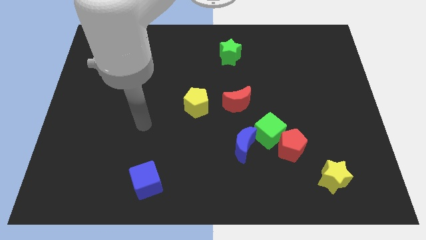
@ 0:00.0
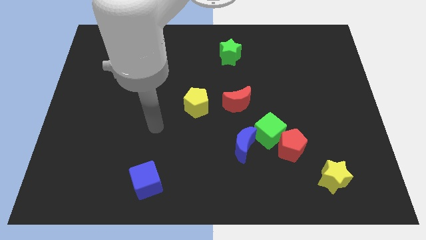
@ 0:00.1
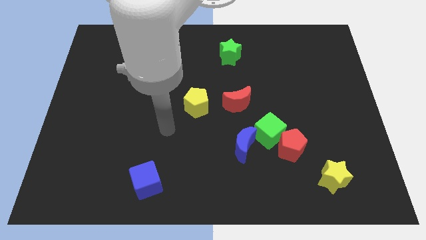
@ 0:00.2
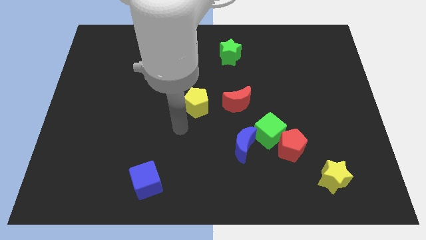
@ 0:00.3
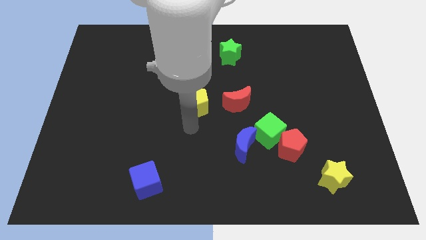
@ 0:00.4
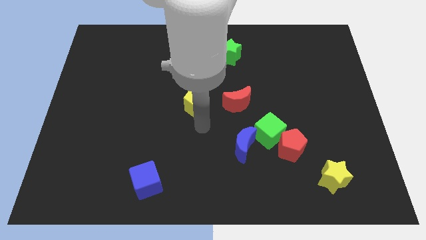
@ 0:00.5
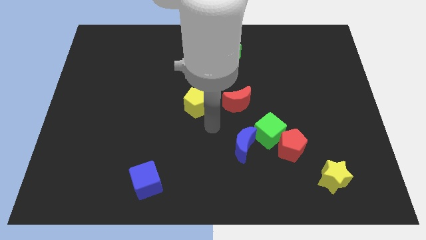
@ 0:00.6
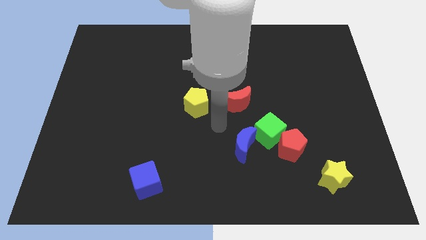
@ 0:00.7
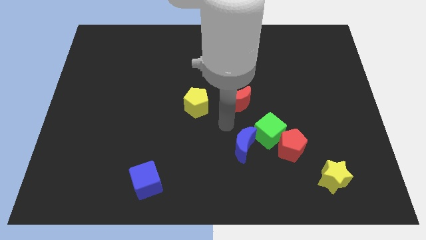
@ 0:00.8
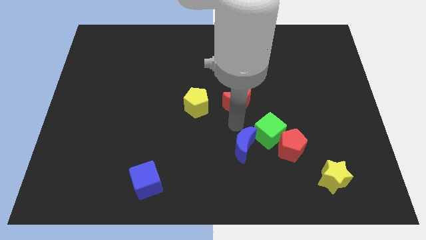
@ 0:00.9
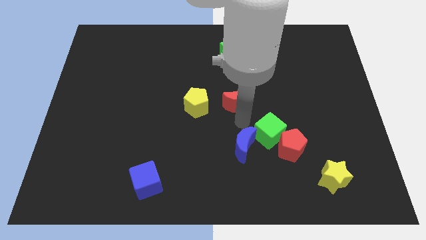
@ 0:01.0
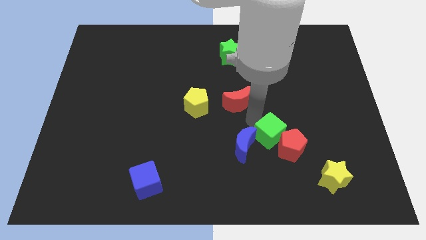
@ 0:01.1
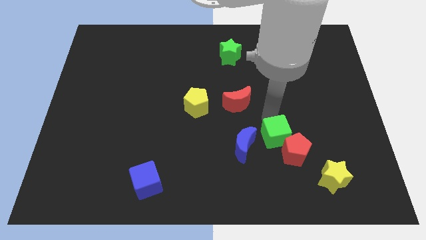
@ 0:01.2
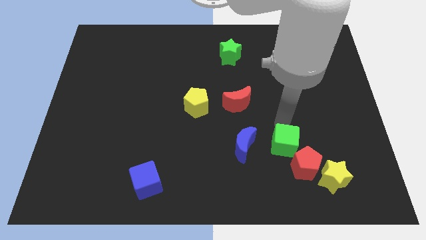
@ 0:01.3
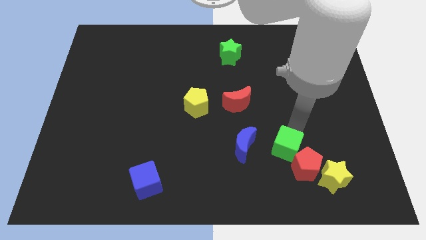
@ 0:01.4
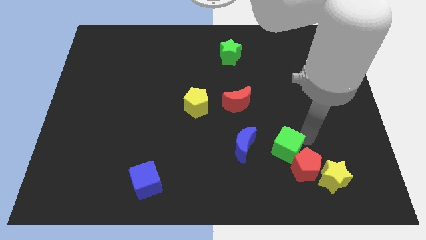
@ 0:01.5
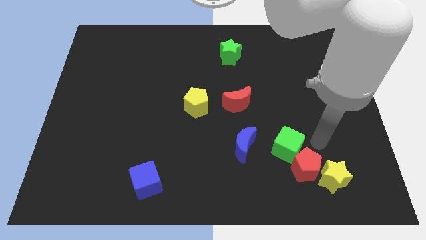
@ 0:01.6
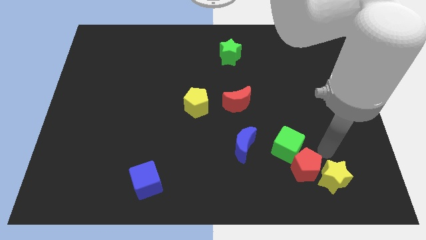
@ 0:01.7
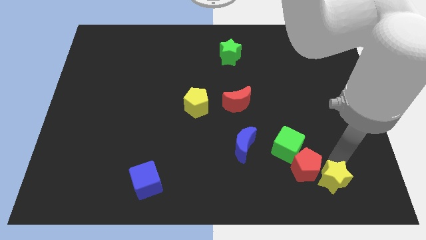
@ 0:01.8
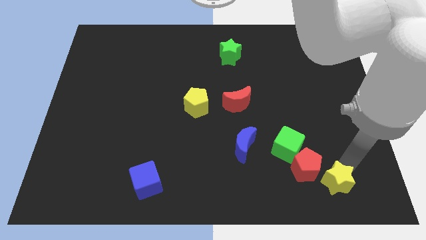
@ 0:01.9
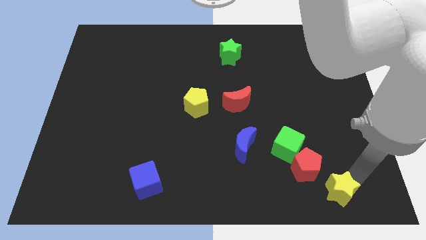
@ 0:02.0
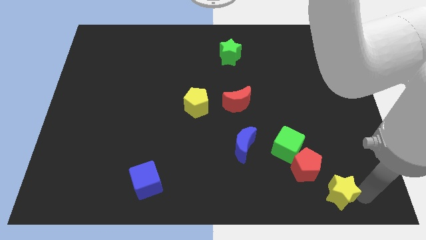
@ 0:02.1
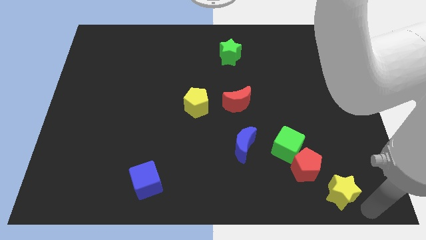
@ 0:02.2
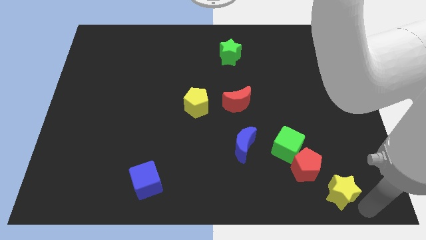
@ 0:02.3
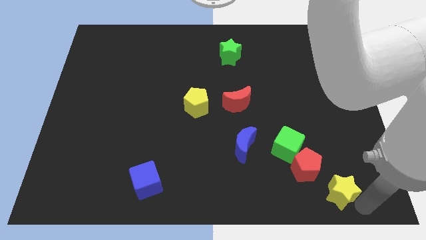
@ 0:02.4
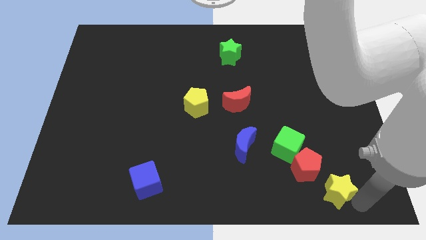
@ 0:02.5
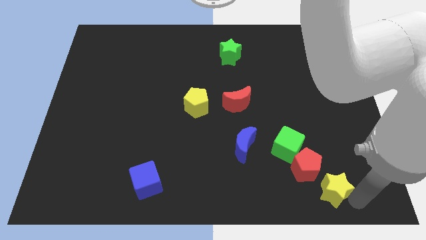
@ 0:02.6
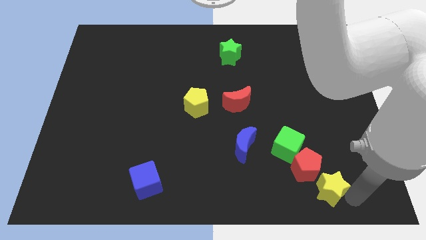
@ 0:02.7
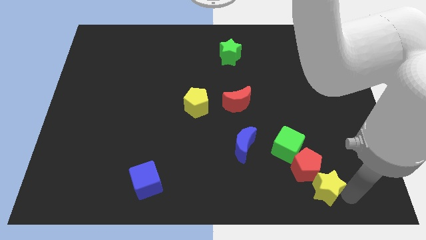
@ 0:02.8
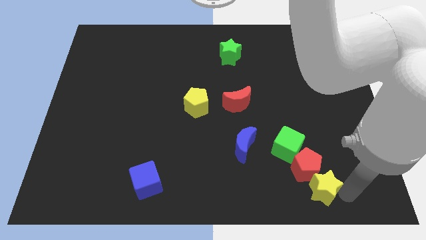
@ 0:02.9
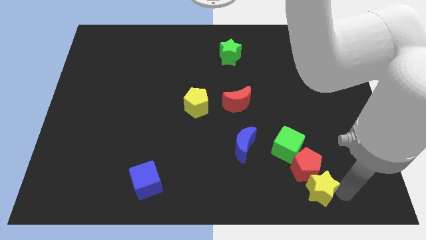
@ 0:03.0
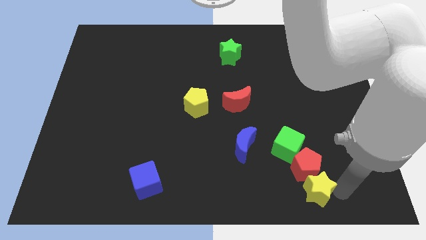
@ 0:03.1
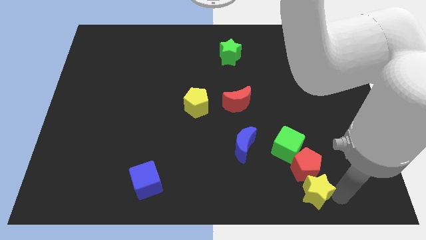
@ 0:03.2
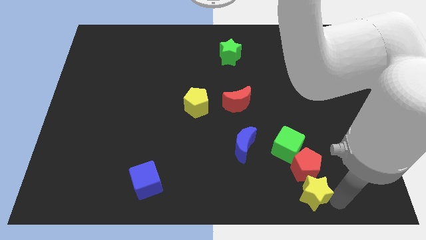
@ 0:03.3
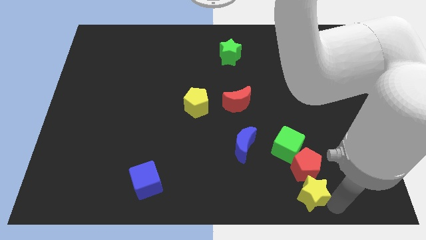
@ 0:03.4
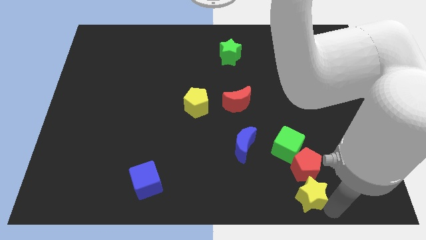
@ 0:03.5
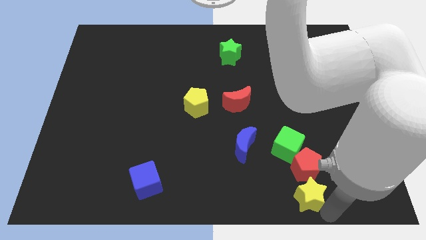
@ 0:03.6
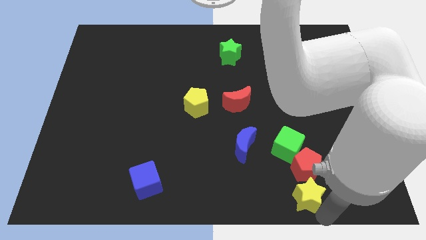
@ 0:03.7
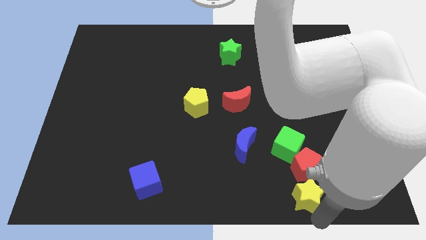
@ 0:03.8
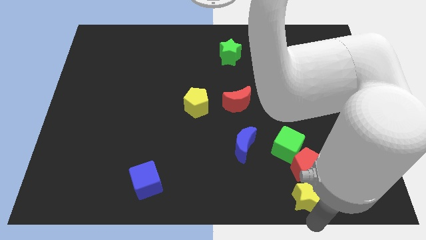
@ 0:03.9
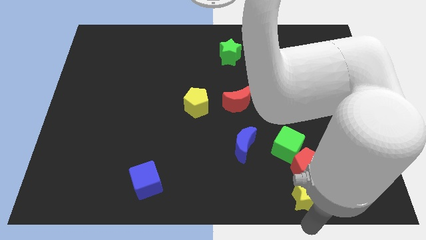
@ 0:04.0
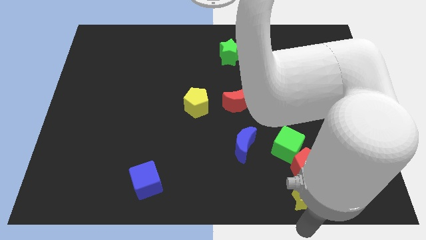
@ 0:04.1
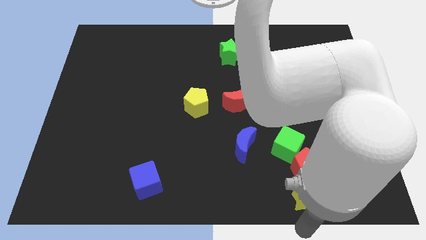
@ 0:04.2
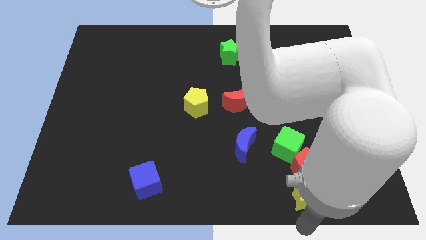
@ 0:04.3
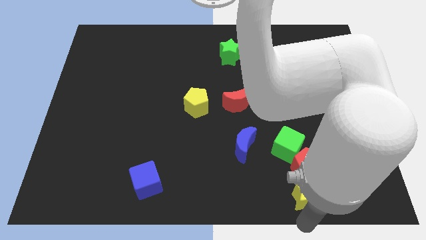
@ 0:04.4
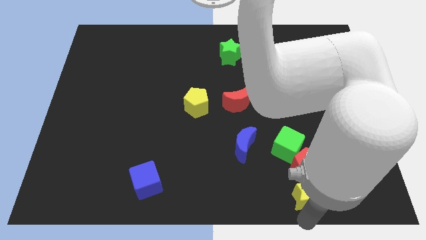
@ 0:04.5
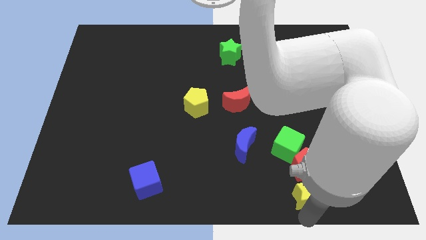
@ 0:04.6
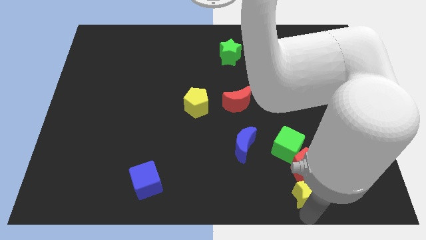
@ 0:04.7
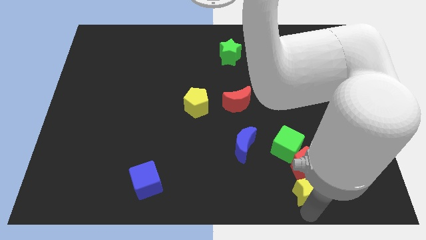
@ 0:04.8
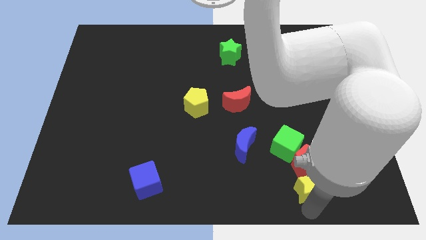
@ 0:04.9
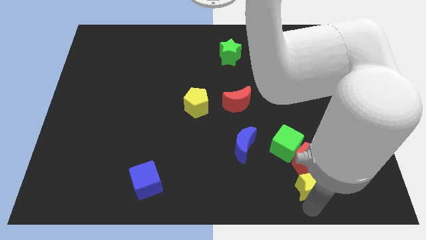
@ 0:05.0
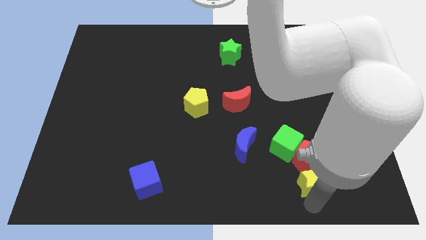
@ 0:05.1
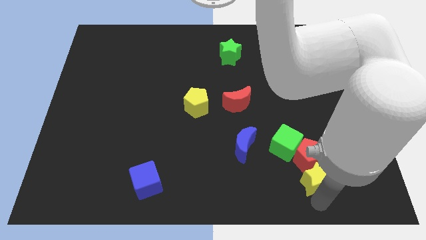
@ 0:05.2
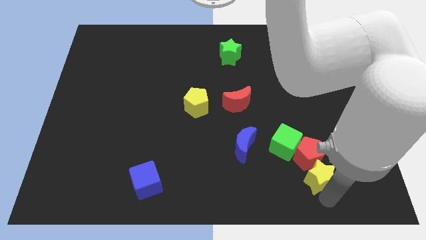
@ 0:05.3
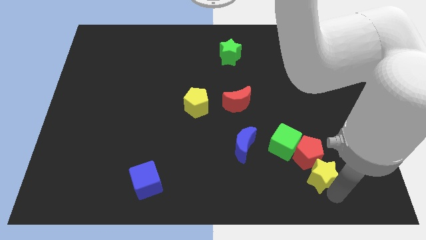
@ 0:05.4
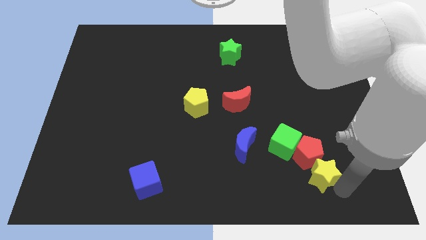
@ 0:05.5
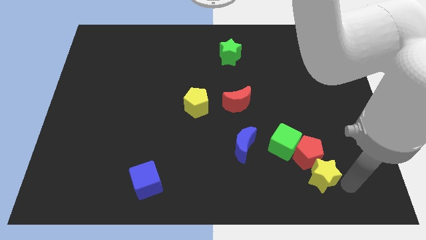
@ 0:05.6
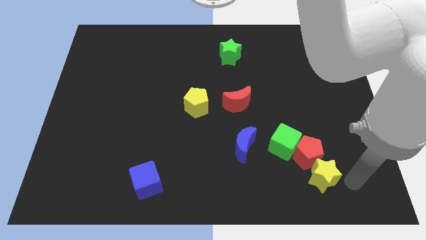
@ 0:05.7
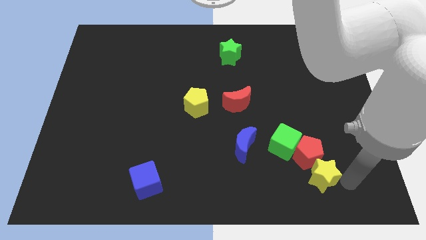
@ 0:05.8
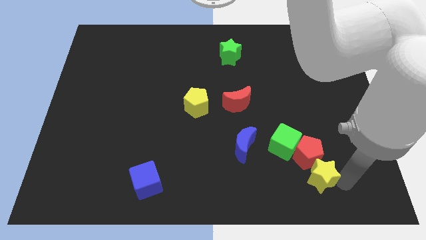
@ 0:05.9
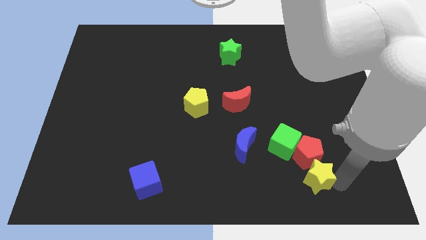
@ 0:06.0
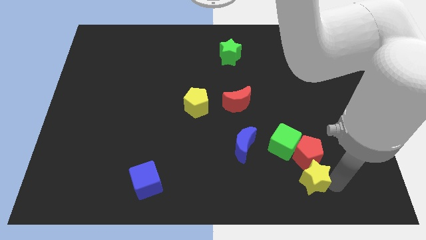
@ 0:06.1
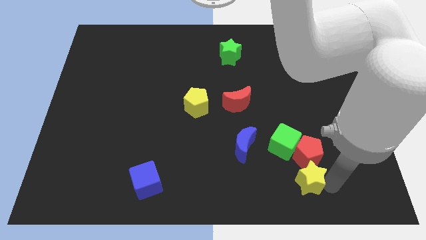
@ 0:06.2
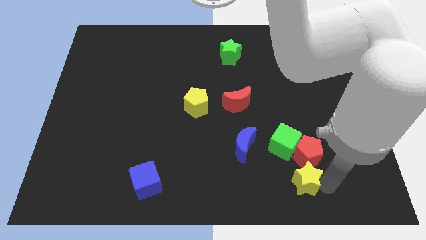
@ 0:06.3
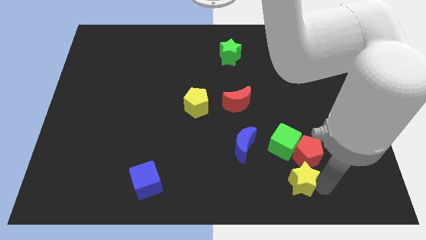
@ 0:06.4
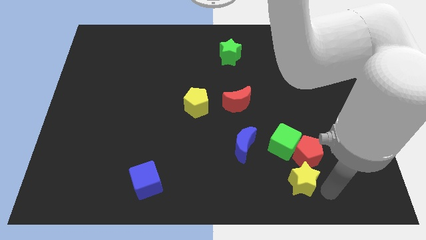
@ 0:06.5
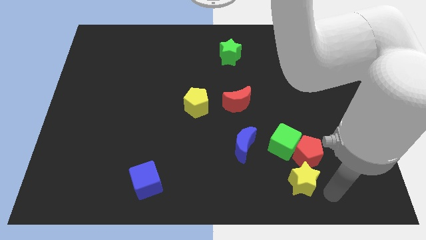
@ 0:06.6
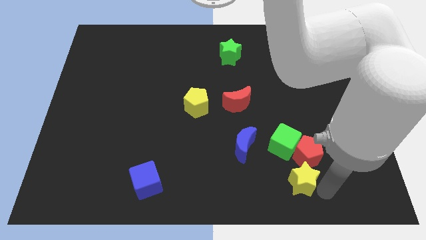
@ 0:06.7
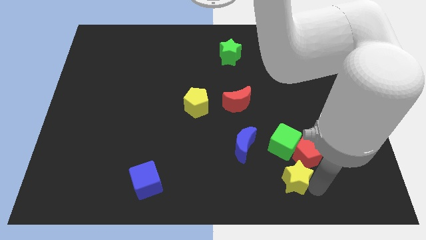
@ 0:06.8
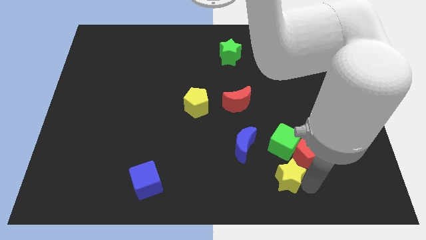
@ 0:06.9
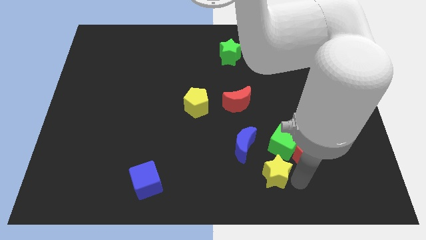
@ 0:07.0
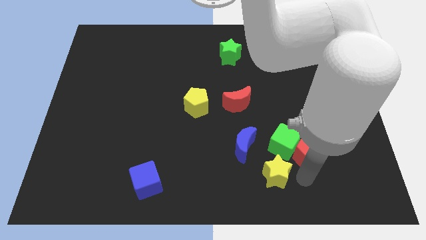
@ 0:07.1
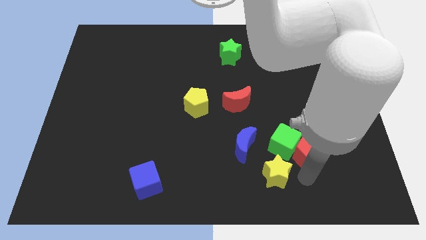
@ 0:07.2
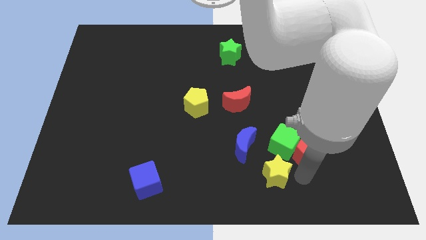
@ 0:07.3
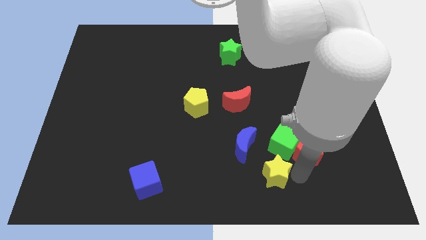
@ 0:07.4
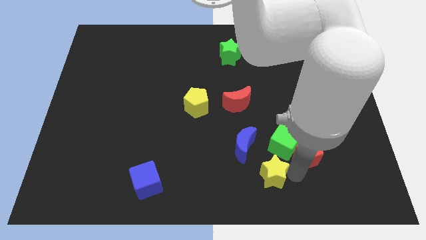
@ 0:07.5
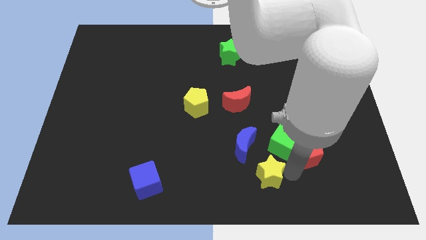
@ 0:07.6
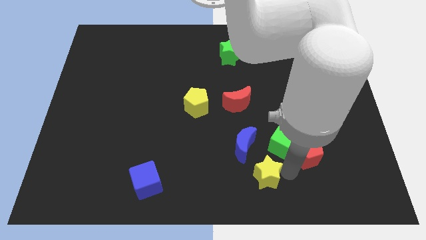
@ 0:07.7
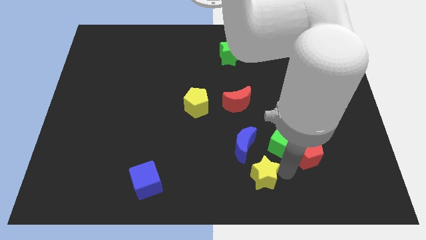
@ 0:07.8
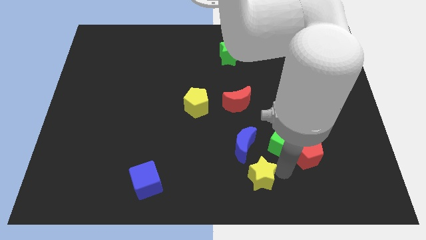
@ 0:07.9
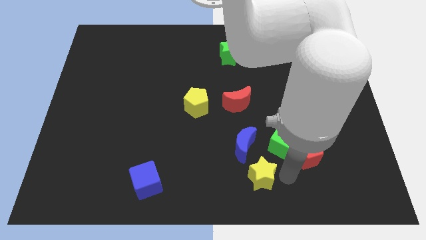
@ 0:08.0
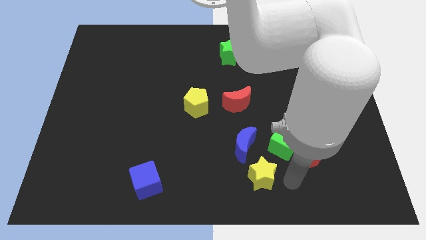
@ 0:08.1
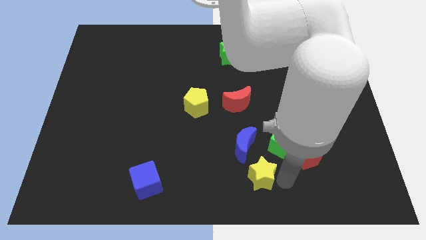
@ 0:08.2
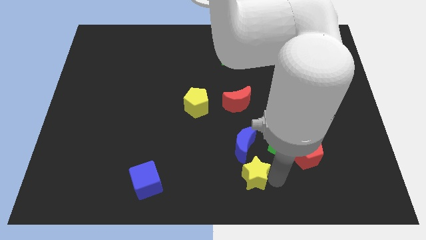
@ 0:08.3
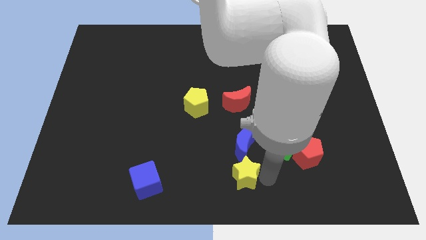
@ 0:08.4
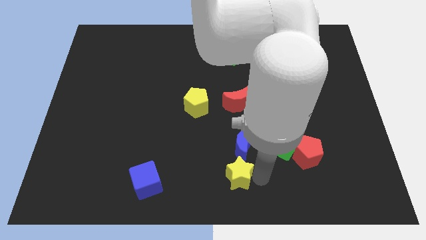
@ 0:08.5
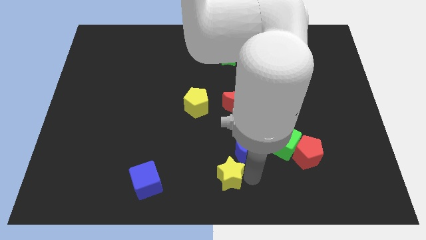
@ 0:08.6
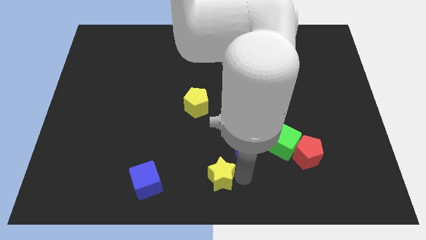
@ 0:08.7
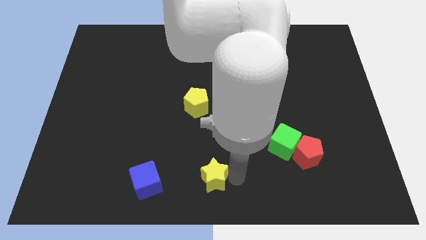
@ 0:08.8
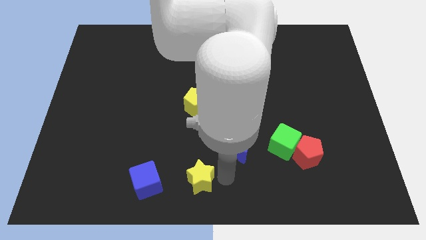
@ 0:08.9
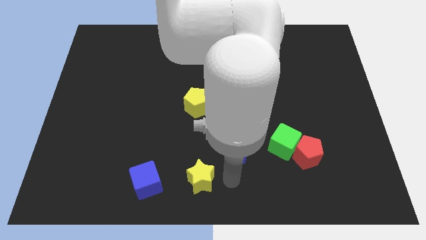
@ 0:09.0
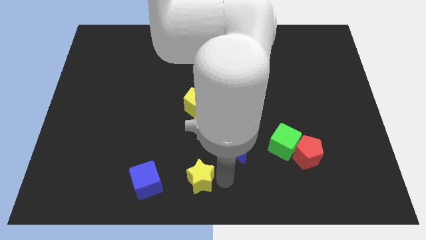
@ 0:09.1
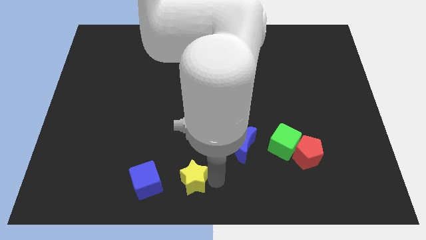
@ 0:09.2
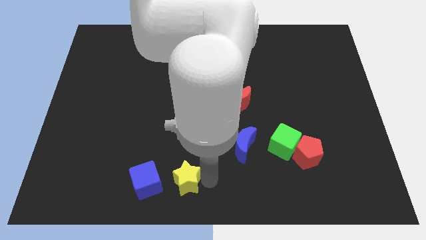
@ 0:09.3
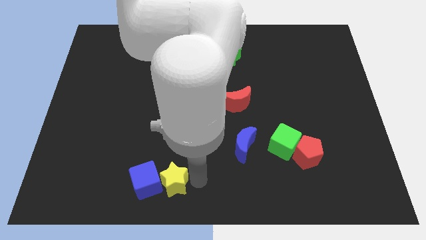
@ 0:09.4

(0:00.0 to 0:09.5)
move the yellow star towards the blue cube
